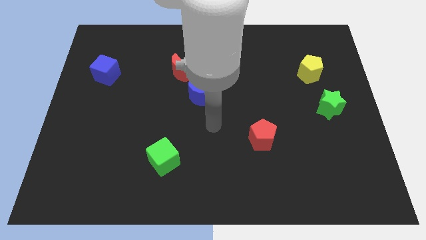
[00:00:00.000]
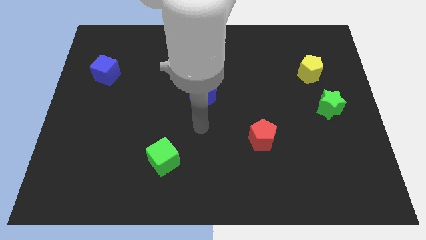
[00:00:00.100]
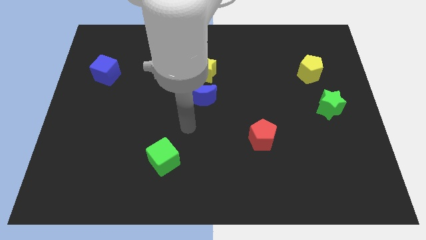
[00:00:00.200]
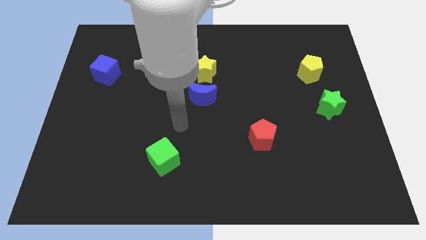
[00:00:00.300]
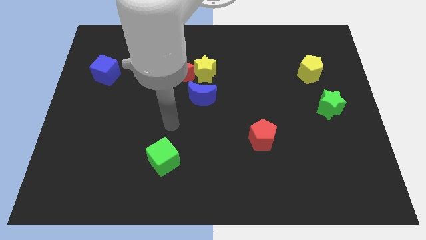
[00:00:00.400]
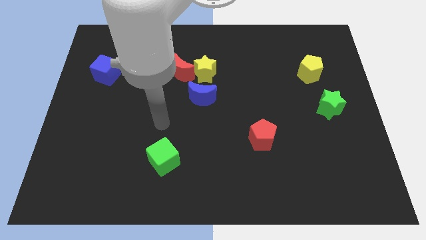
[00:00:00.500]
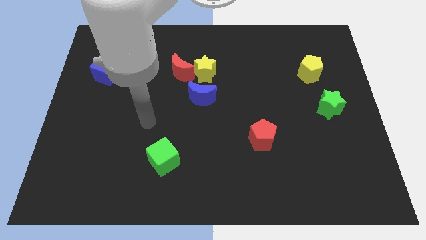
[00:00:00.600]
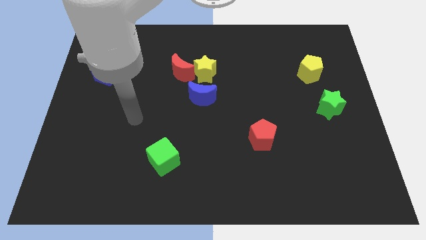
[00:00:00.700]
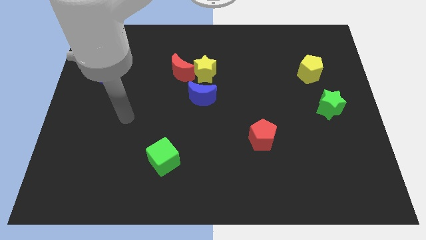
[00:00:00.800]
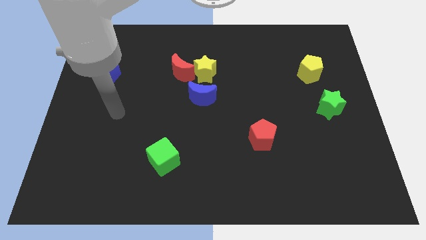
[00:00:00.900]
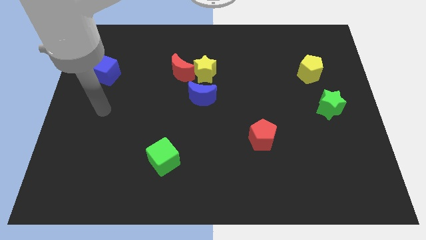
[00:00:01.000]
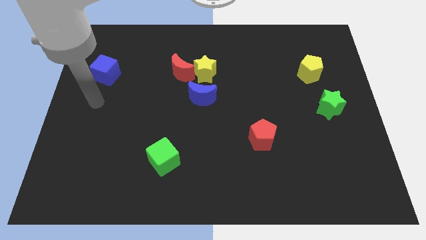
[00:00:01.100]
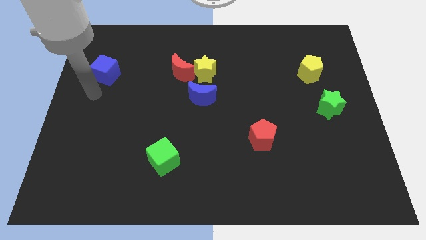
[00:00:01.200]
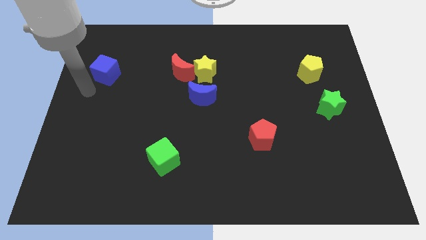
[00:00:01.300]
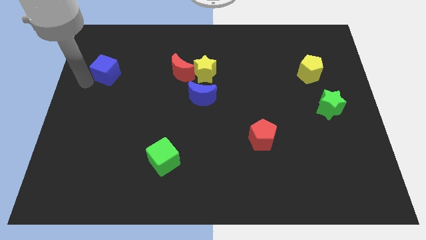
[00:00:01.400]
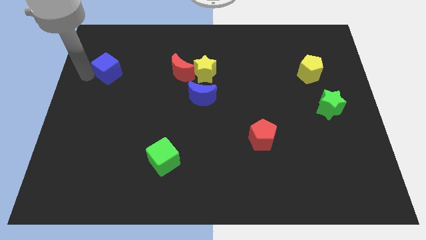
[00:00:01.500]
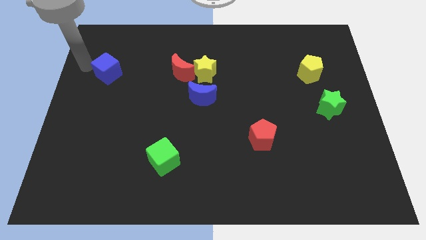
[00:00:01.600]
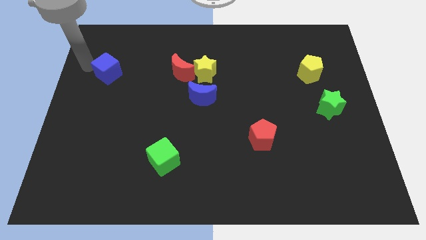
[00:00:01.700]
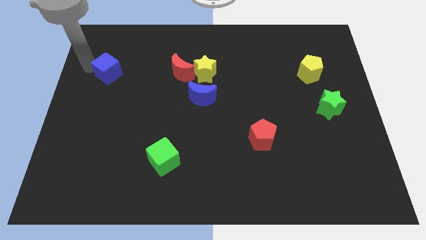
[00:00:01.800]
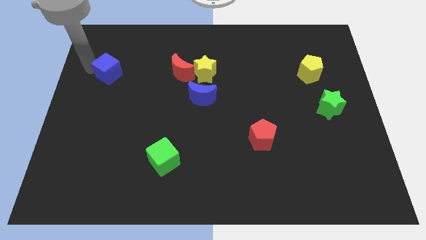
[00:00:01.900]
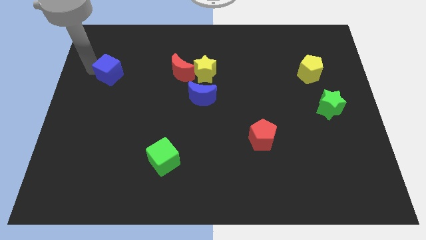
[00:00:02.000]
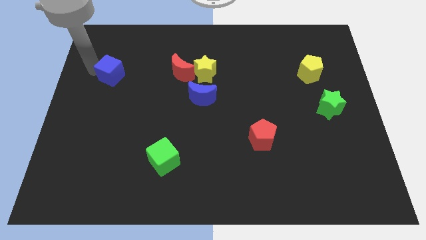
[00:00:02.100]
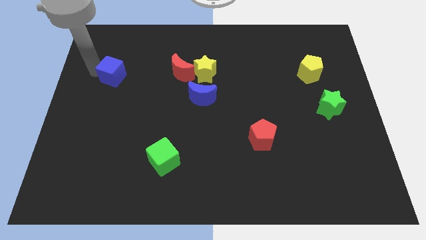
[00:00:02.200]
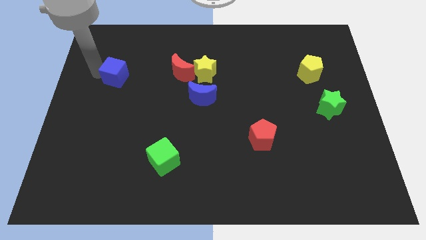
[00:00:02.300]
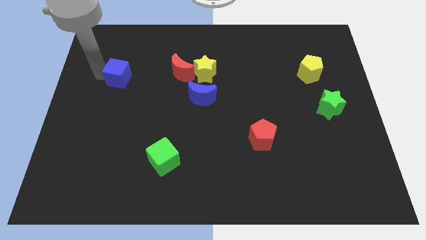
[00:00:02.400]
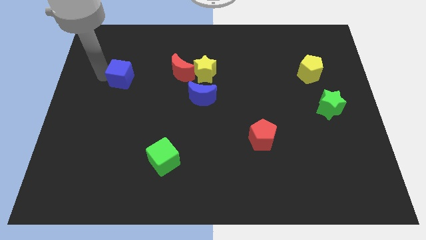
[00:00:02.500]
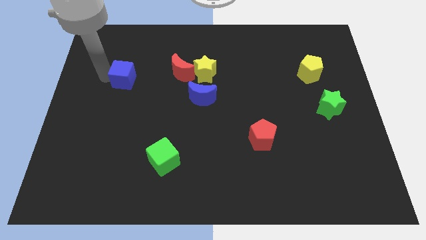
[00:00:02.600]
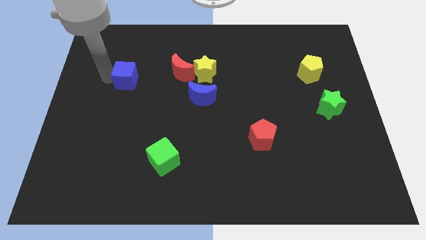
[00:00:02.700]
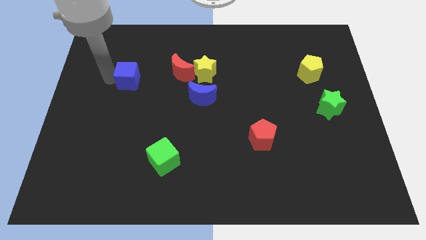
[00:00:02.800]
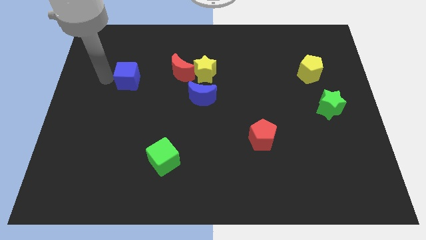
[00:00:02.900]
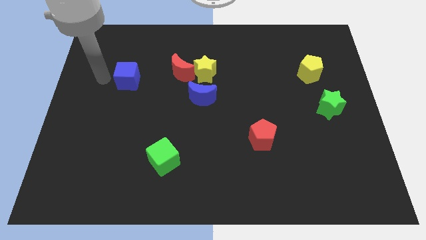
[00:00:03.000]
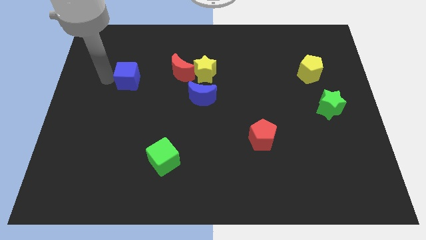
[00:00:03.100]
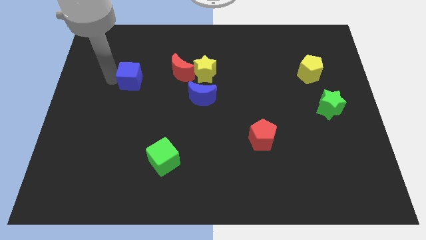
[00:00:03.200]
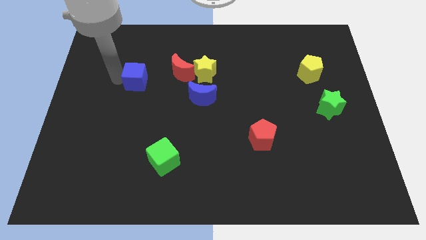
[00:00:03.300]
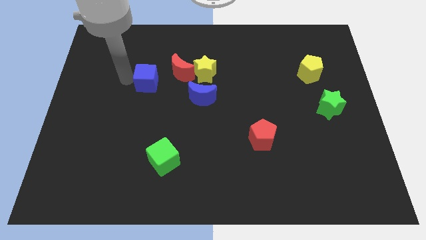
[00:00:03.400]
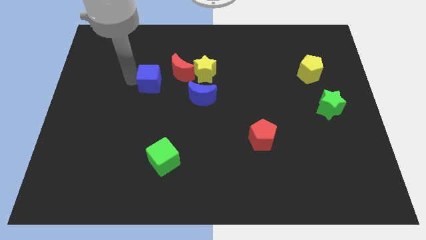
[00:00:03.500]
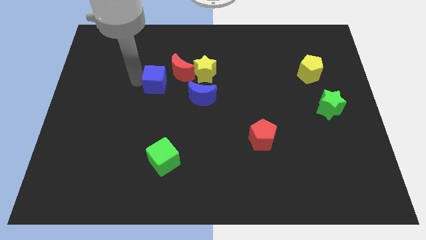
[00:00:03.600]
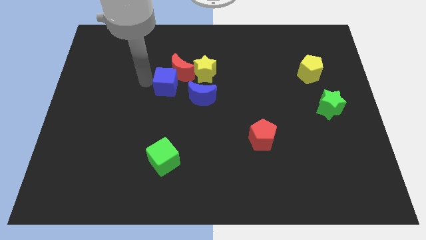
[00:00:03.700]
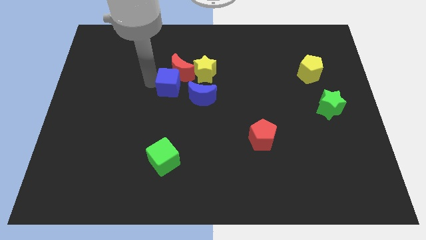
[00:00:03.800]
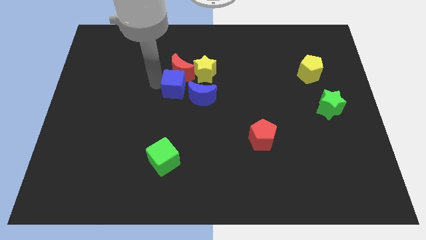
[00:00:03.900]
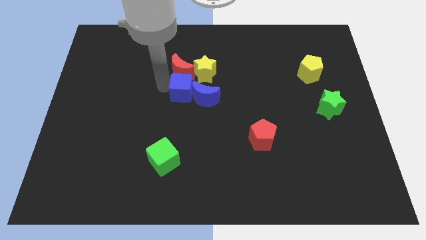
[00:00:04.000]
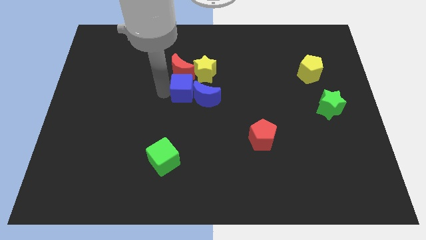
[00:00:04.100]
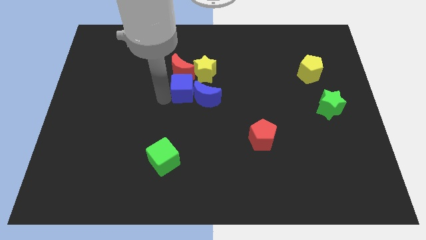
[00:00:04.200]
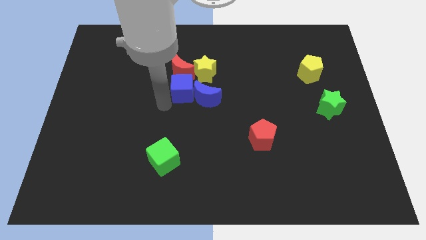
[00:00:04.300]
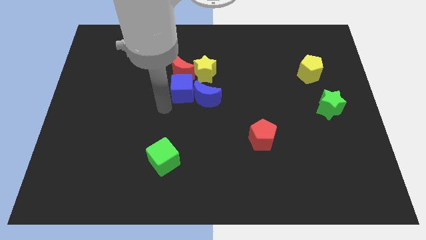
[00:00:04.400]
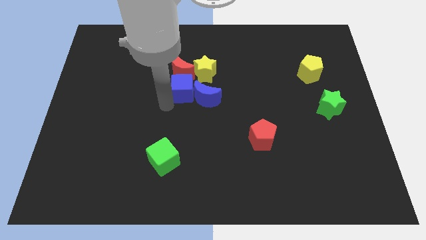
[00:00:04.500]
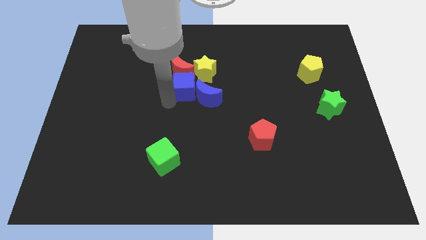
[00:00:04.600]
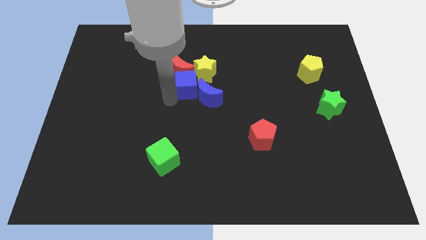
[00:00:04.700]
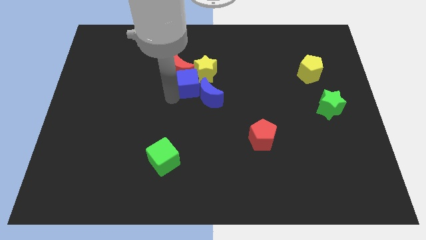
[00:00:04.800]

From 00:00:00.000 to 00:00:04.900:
push the blue cube next to the yellow star

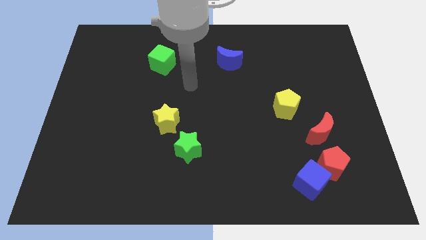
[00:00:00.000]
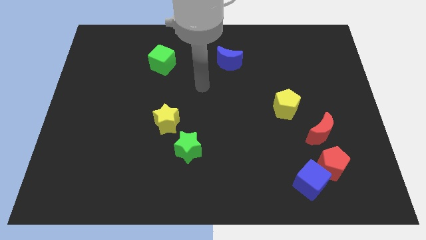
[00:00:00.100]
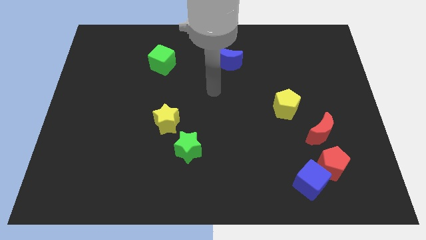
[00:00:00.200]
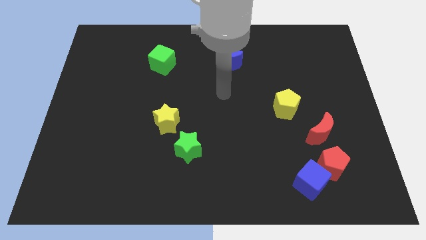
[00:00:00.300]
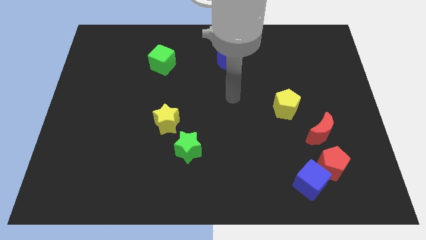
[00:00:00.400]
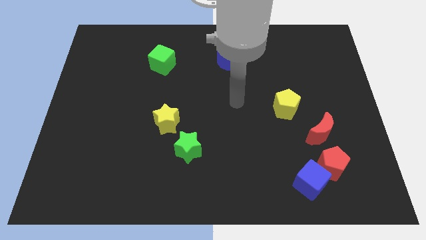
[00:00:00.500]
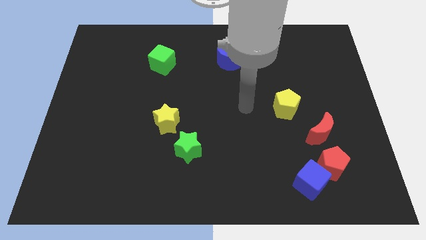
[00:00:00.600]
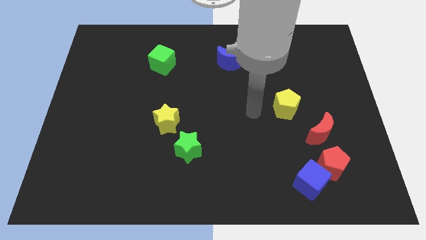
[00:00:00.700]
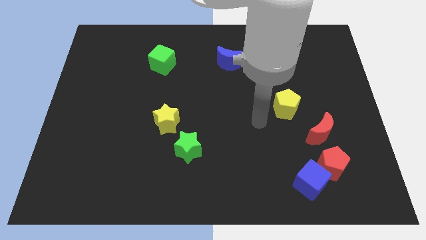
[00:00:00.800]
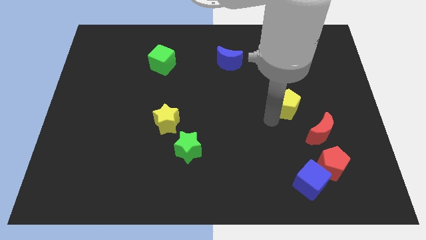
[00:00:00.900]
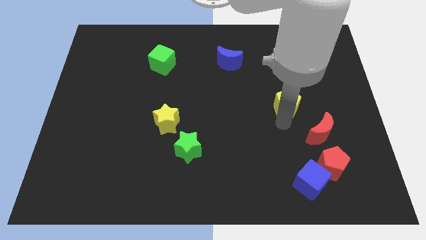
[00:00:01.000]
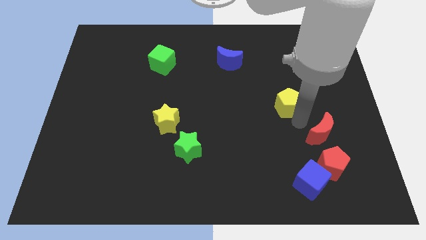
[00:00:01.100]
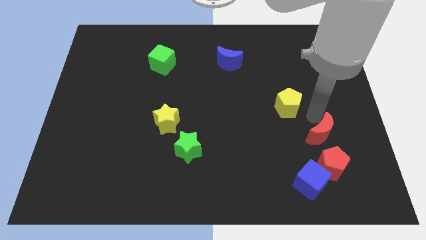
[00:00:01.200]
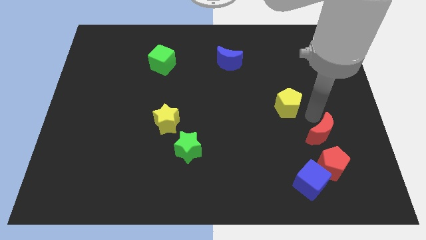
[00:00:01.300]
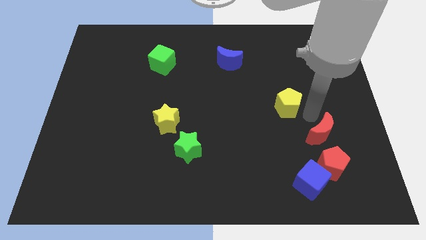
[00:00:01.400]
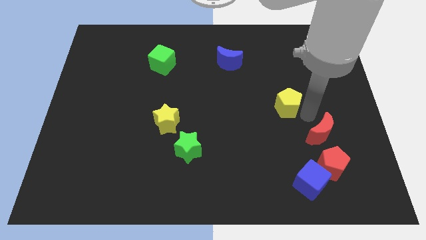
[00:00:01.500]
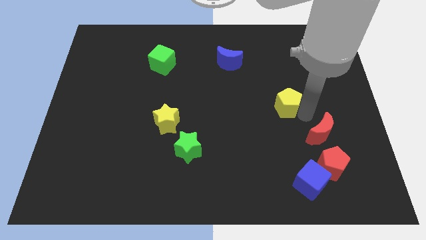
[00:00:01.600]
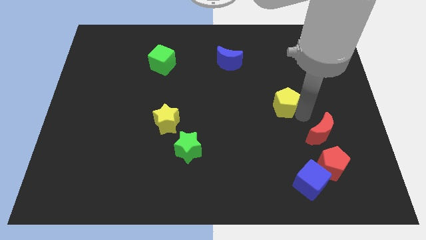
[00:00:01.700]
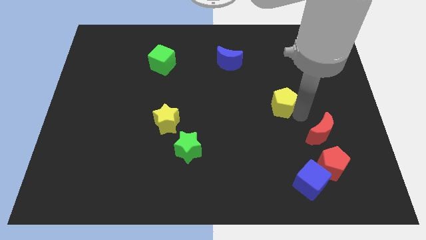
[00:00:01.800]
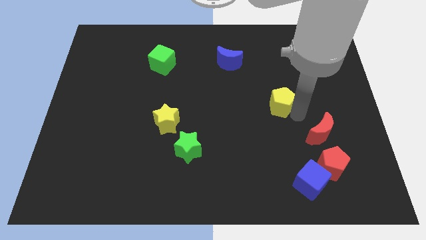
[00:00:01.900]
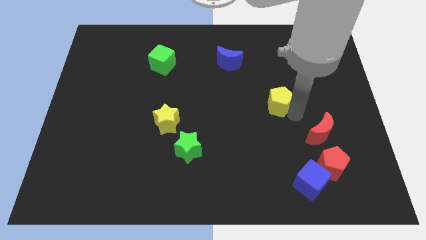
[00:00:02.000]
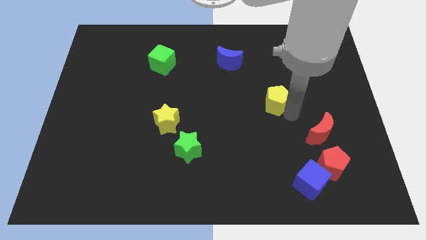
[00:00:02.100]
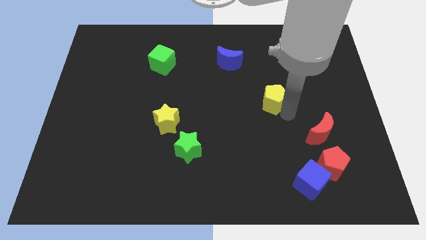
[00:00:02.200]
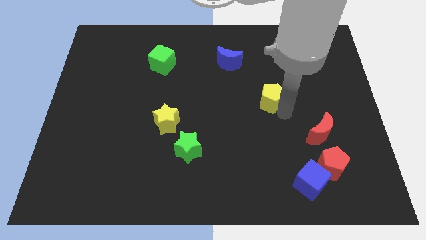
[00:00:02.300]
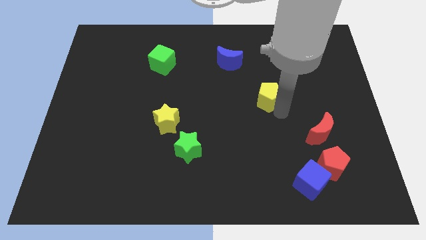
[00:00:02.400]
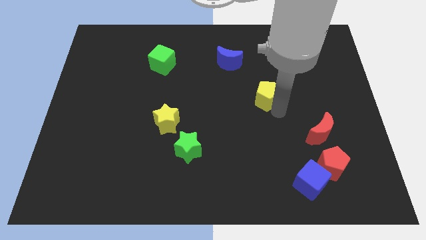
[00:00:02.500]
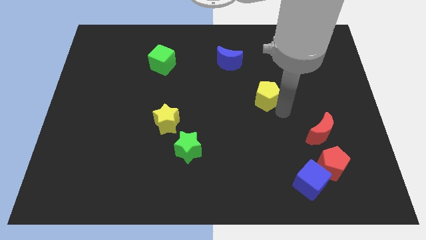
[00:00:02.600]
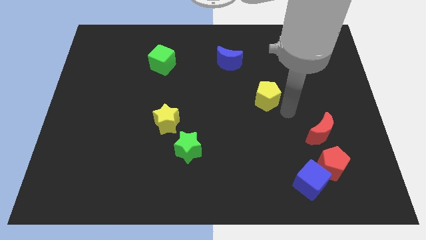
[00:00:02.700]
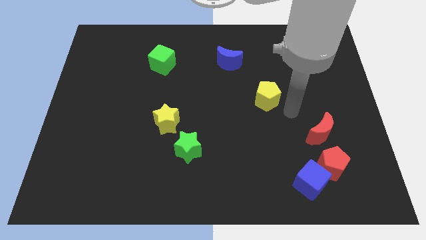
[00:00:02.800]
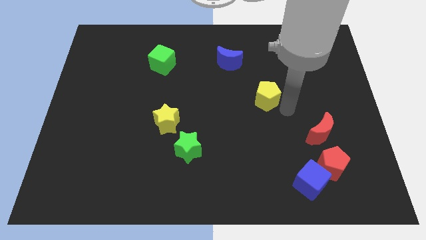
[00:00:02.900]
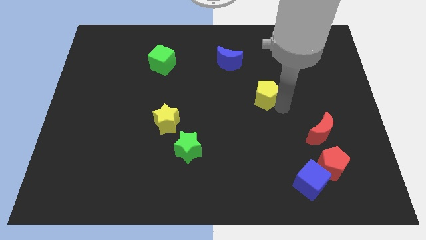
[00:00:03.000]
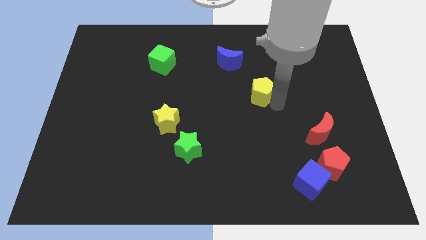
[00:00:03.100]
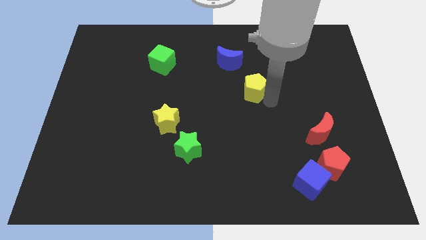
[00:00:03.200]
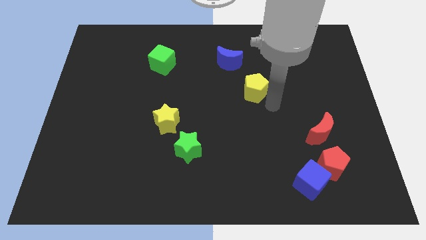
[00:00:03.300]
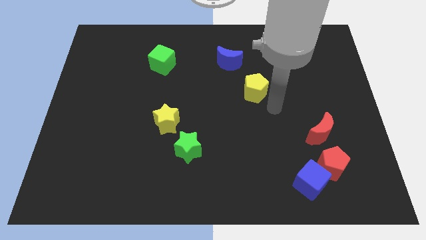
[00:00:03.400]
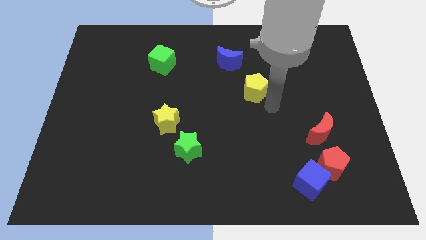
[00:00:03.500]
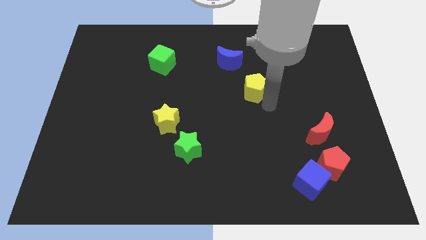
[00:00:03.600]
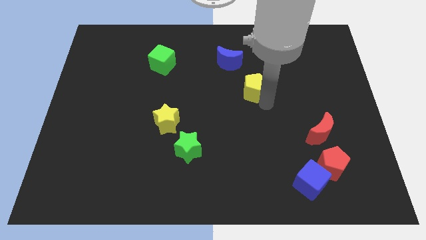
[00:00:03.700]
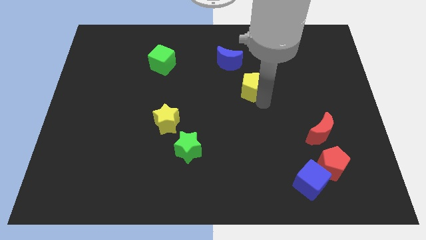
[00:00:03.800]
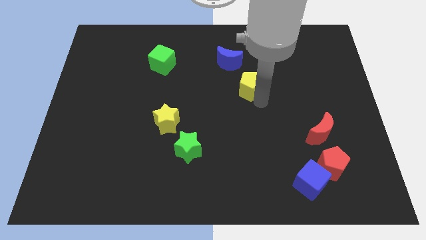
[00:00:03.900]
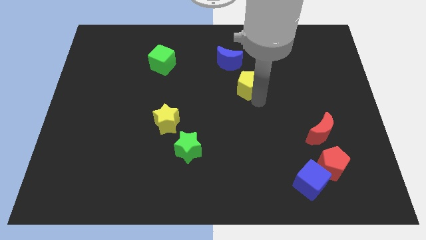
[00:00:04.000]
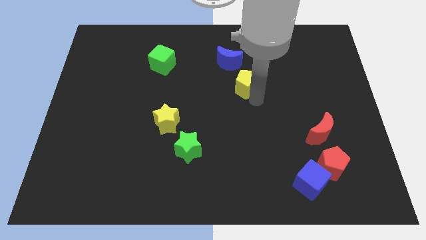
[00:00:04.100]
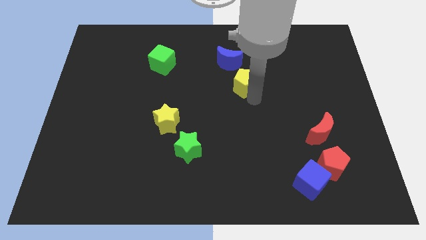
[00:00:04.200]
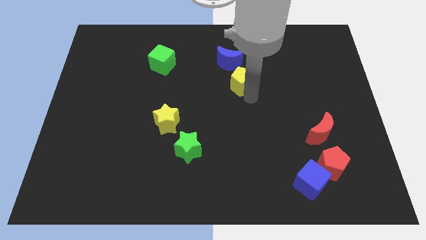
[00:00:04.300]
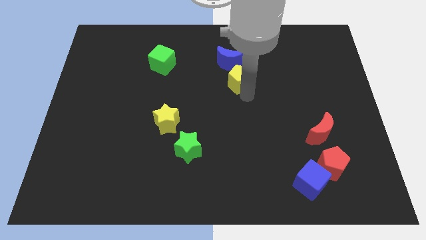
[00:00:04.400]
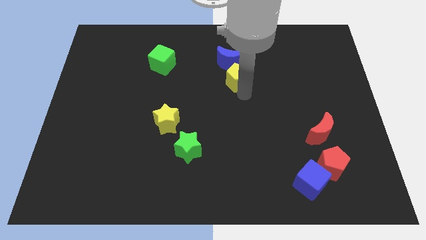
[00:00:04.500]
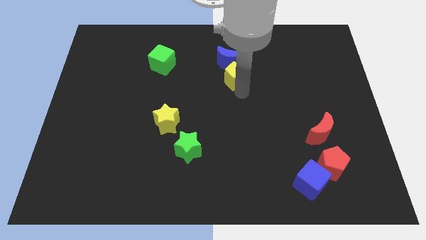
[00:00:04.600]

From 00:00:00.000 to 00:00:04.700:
put the yellow pentagon close to the blue moon
